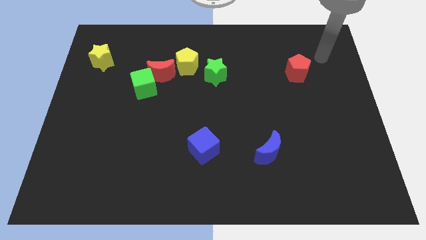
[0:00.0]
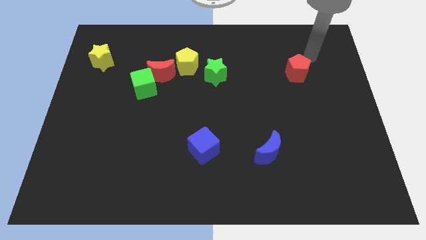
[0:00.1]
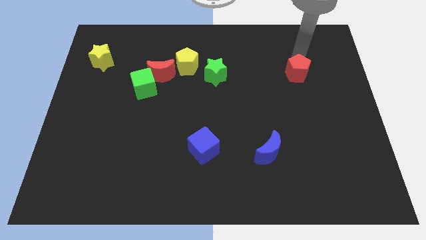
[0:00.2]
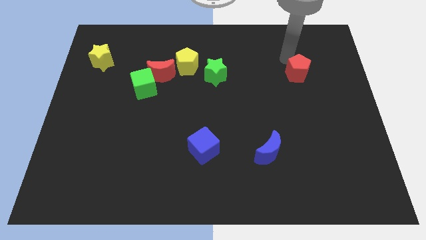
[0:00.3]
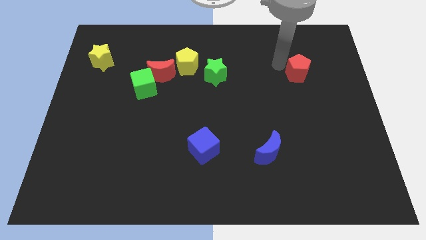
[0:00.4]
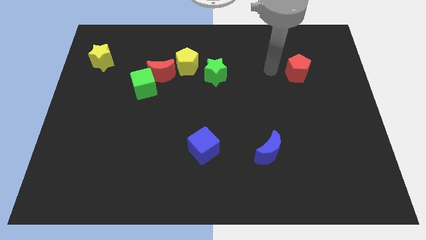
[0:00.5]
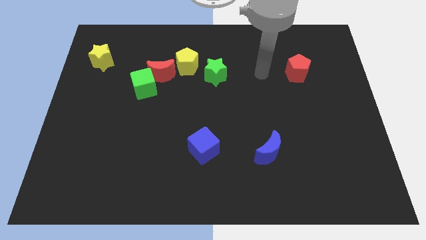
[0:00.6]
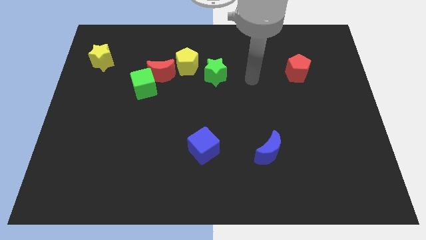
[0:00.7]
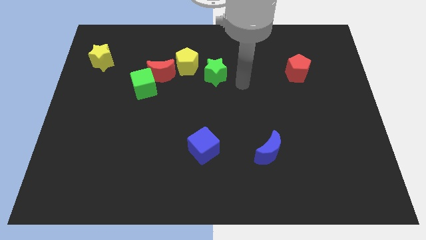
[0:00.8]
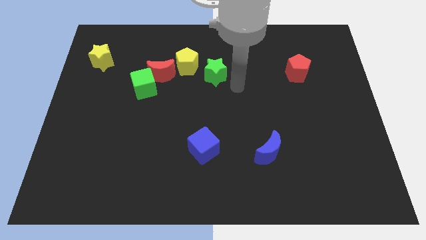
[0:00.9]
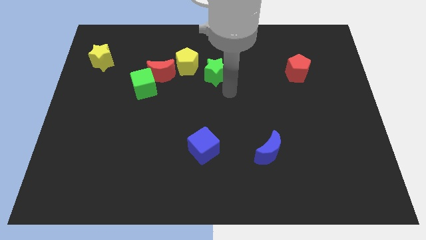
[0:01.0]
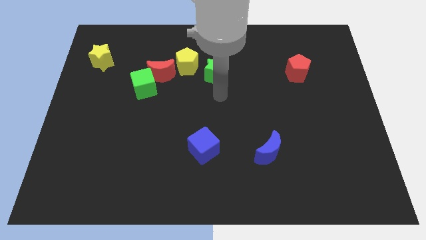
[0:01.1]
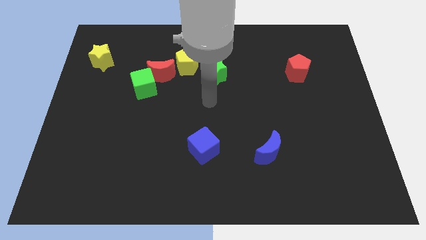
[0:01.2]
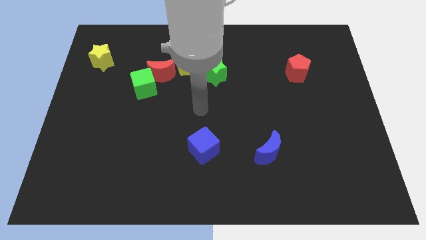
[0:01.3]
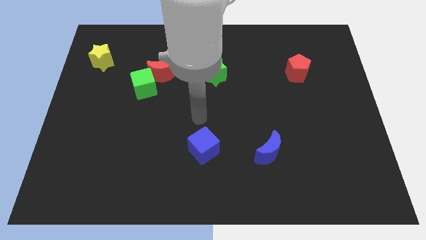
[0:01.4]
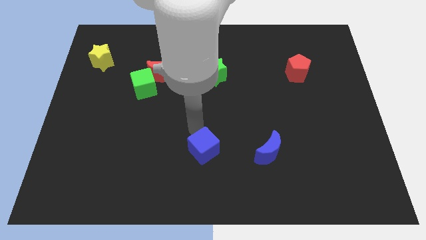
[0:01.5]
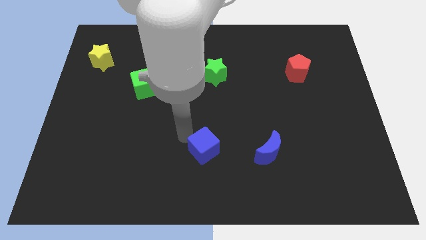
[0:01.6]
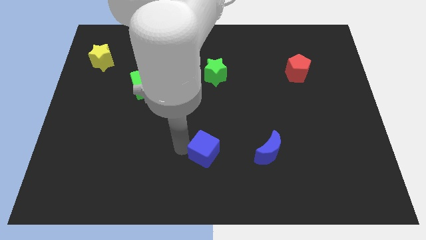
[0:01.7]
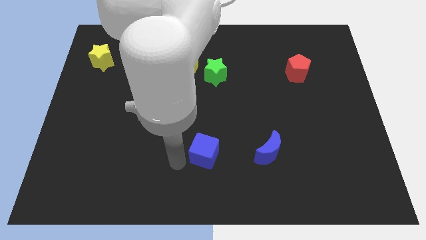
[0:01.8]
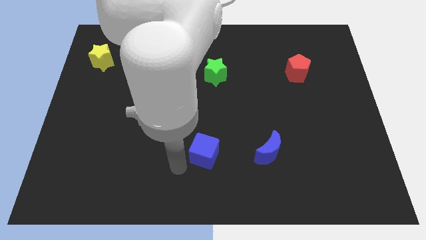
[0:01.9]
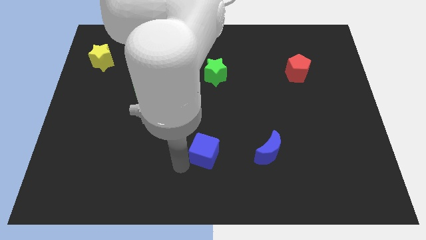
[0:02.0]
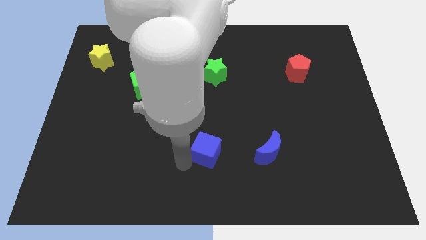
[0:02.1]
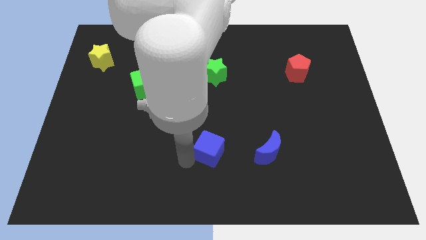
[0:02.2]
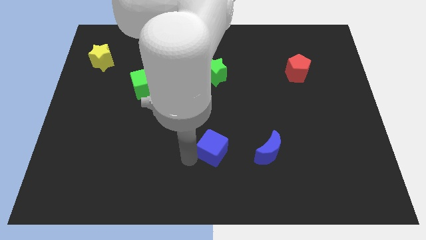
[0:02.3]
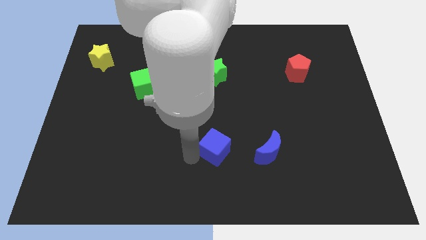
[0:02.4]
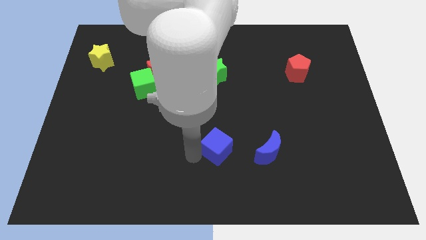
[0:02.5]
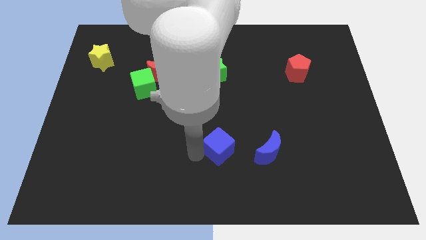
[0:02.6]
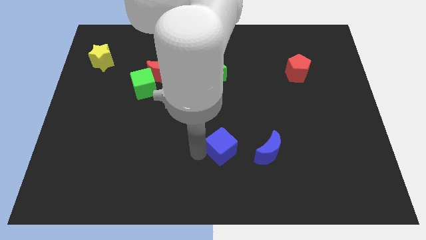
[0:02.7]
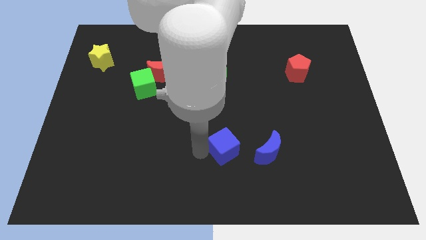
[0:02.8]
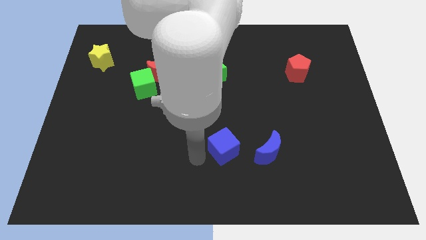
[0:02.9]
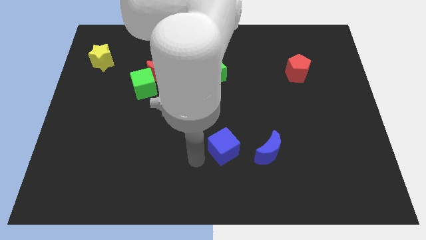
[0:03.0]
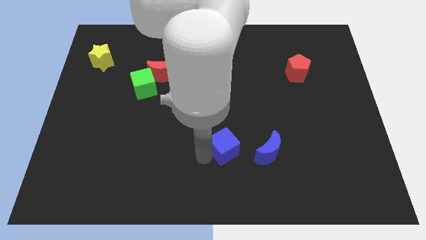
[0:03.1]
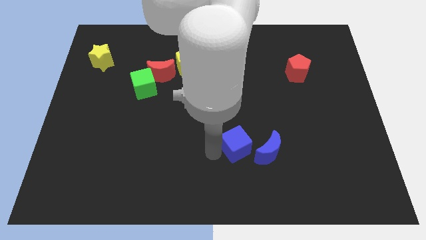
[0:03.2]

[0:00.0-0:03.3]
slide the blue cube right a little

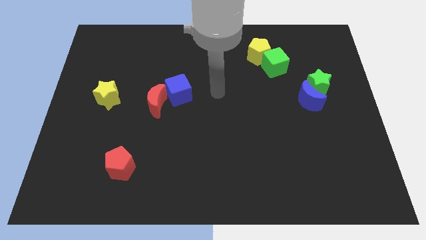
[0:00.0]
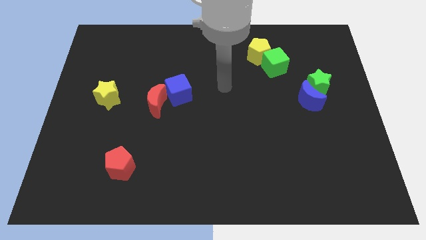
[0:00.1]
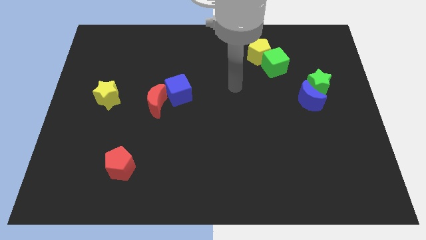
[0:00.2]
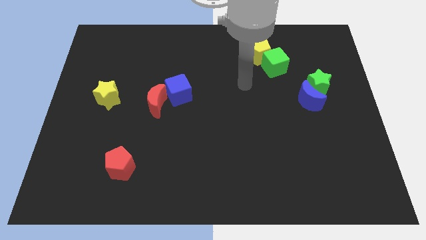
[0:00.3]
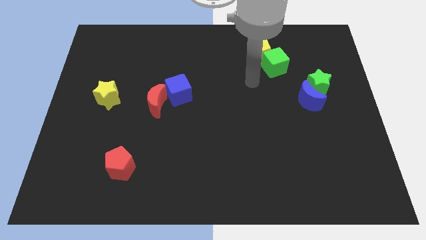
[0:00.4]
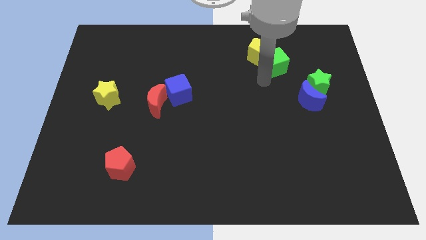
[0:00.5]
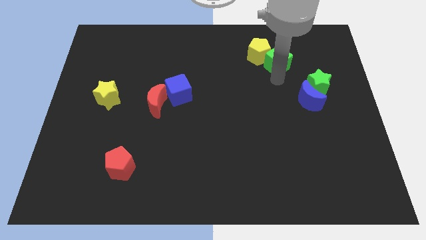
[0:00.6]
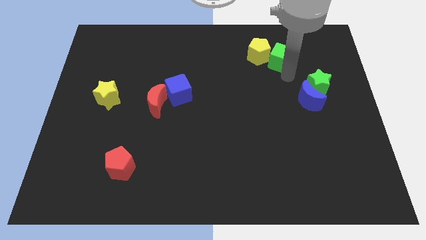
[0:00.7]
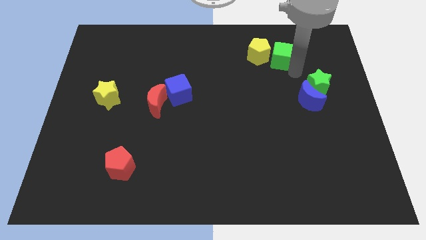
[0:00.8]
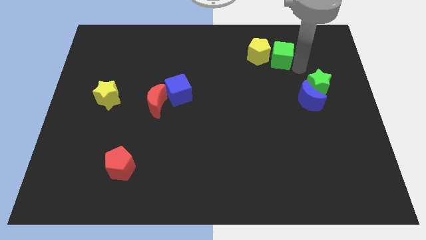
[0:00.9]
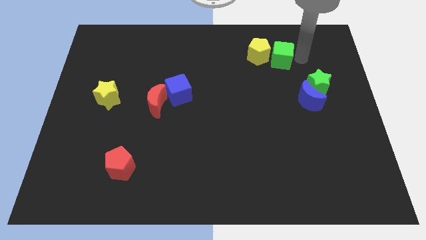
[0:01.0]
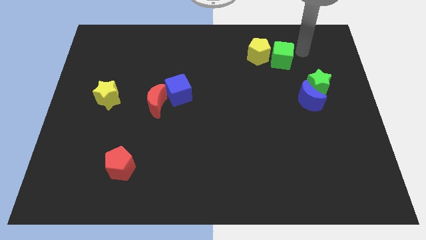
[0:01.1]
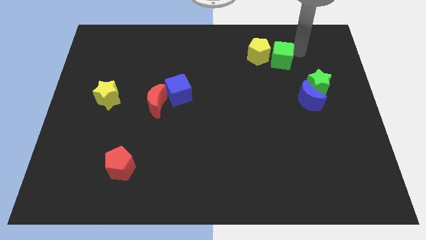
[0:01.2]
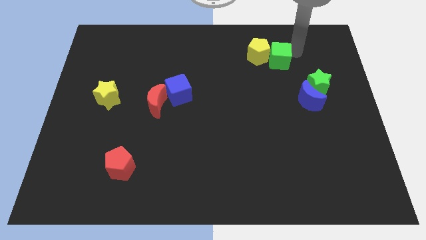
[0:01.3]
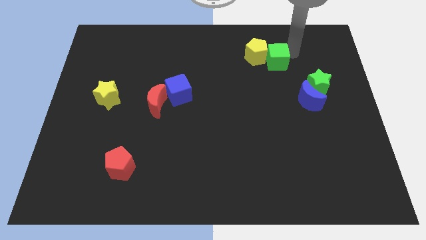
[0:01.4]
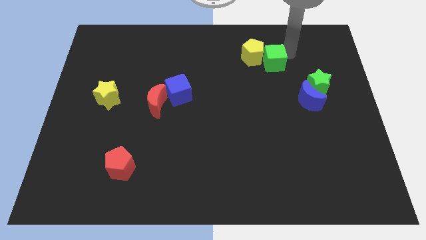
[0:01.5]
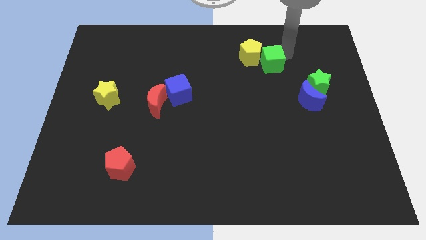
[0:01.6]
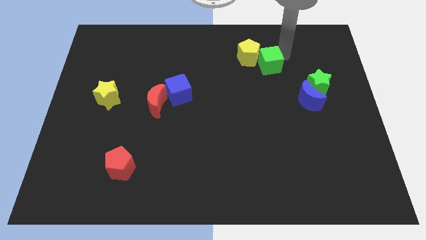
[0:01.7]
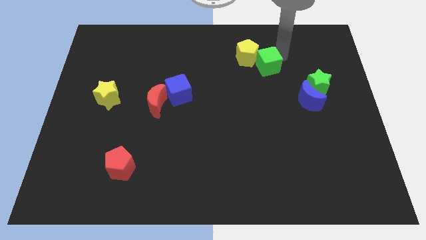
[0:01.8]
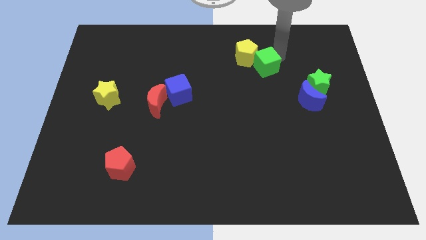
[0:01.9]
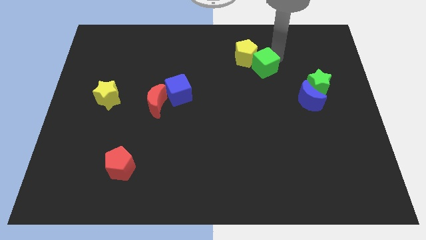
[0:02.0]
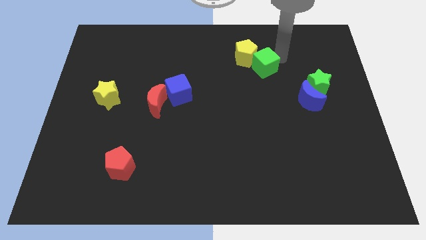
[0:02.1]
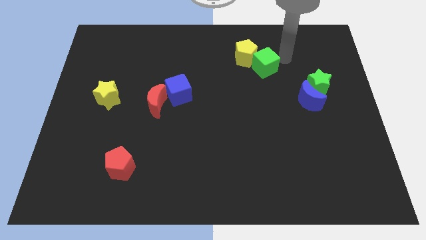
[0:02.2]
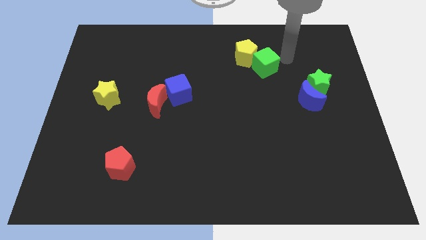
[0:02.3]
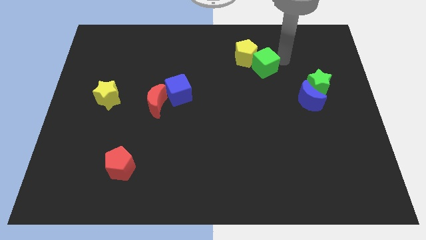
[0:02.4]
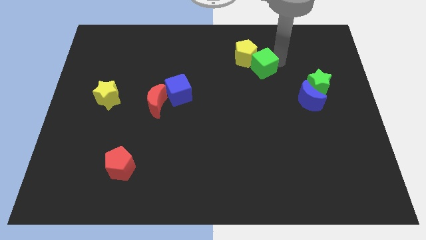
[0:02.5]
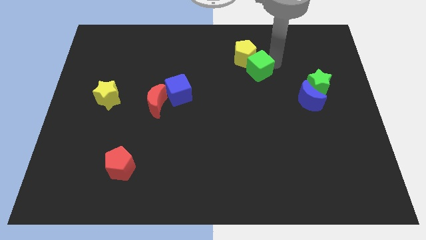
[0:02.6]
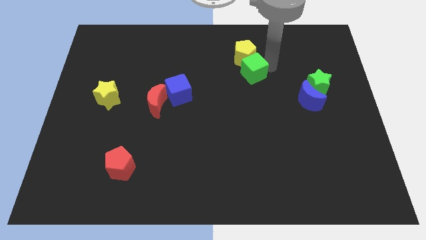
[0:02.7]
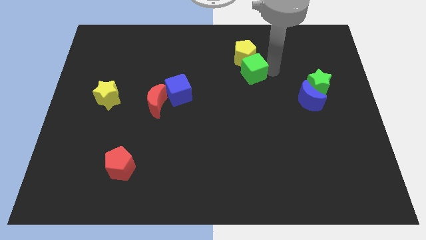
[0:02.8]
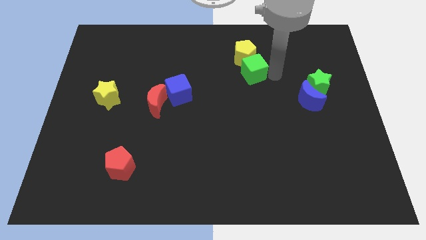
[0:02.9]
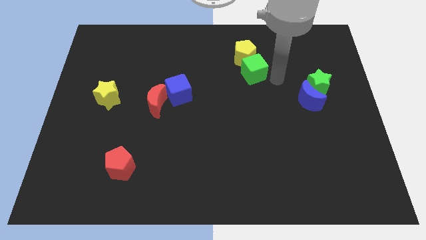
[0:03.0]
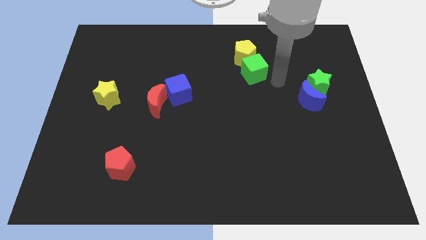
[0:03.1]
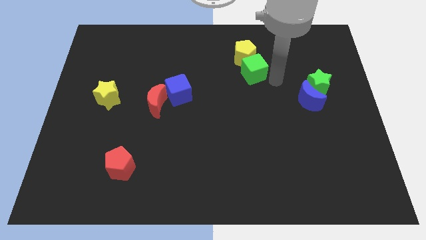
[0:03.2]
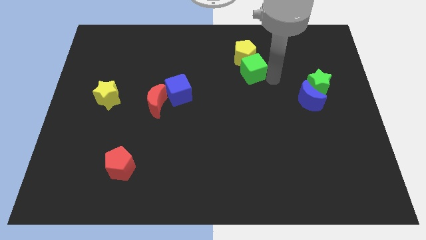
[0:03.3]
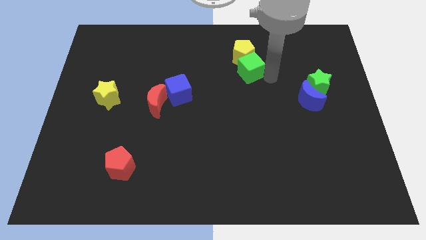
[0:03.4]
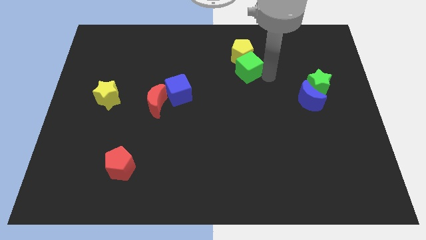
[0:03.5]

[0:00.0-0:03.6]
push the green cube a bit left

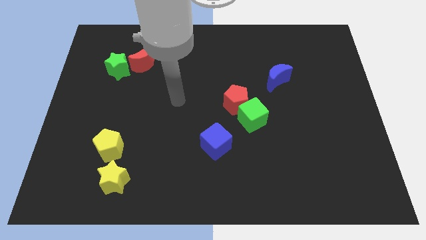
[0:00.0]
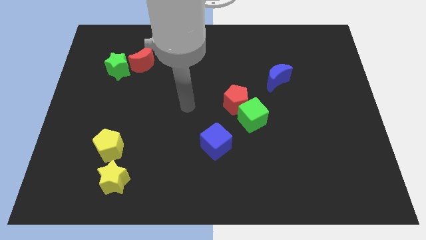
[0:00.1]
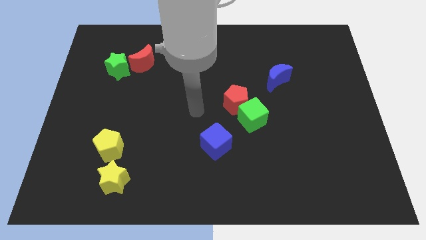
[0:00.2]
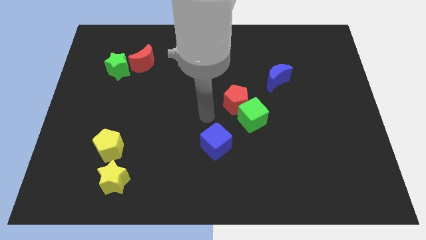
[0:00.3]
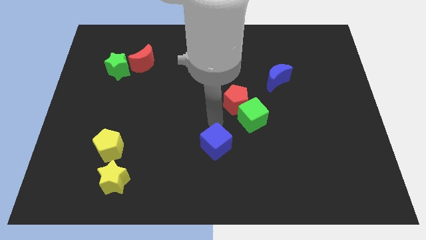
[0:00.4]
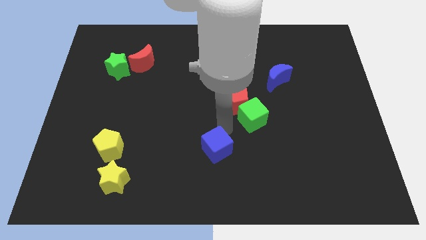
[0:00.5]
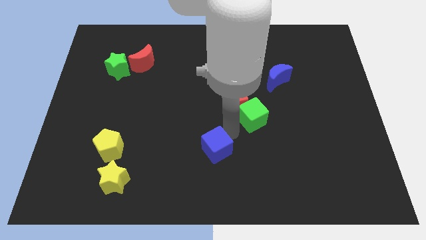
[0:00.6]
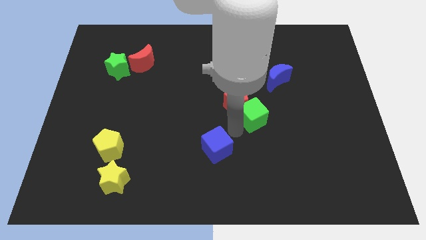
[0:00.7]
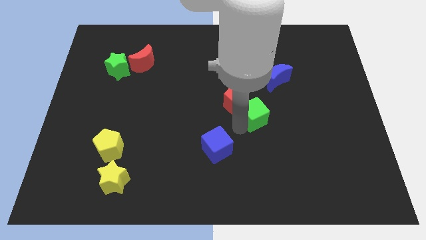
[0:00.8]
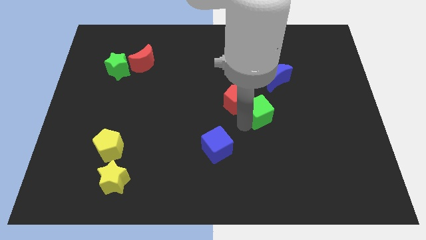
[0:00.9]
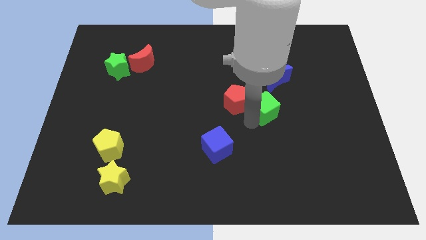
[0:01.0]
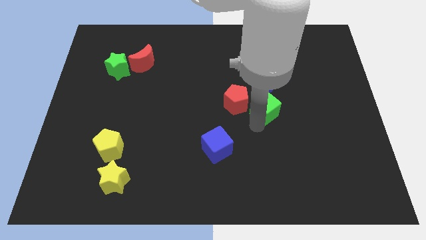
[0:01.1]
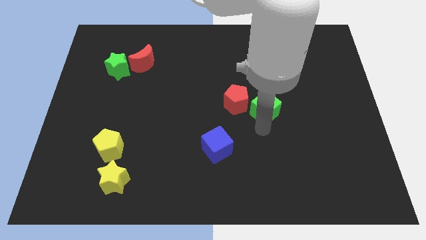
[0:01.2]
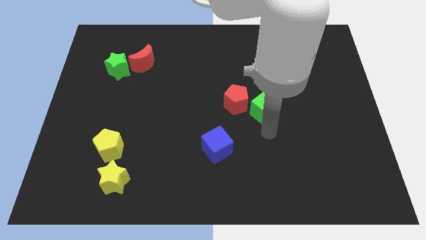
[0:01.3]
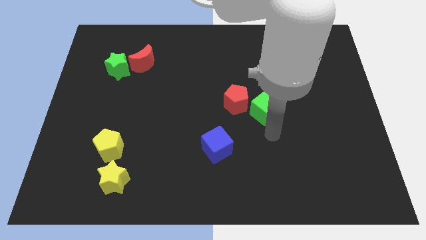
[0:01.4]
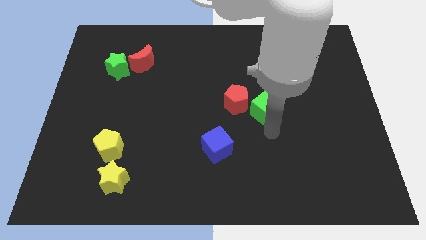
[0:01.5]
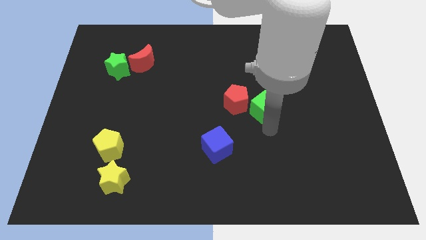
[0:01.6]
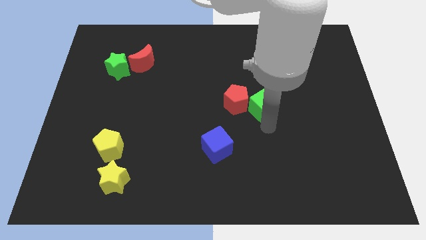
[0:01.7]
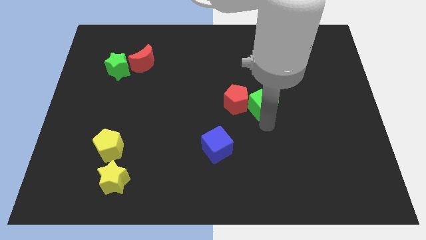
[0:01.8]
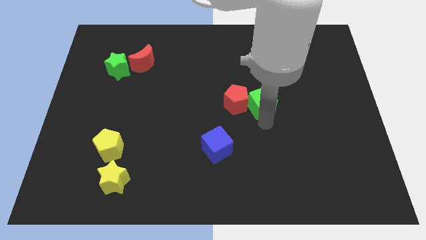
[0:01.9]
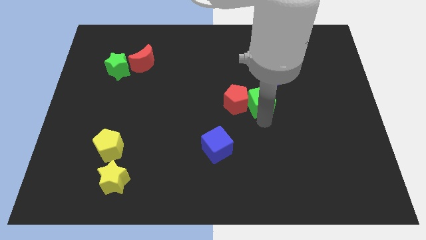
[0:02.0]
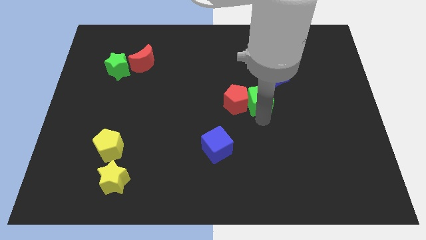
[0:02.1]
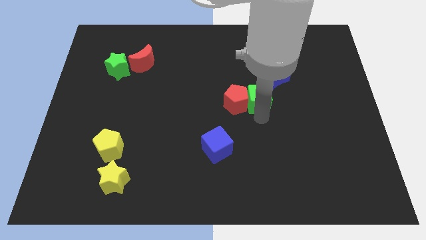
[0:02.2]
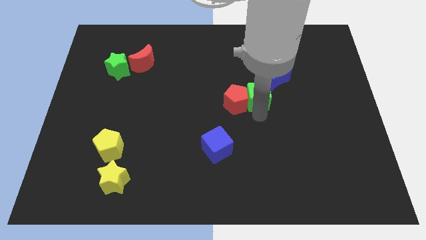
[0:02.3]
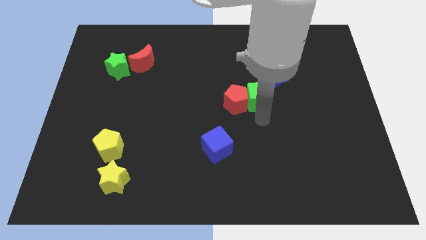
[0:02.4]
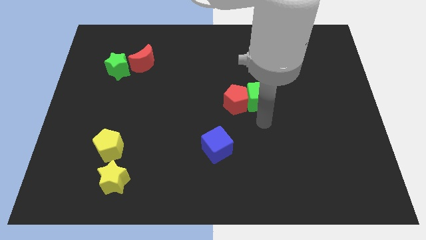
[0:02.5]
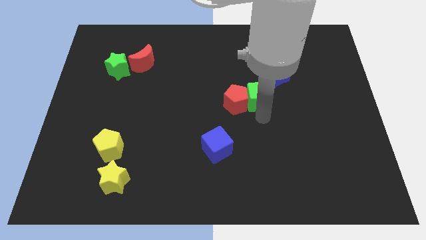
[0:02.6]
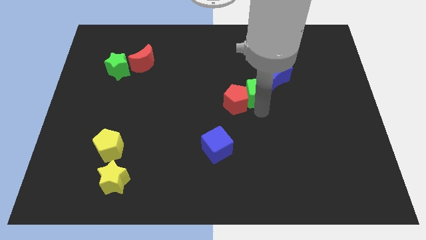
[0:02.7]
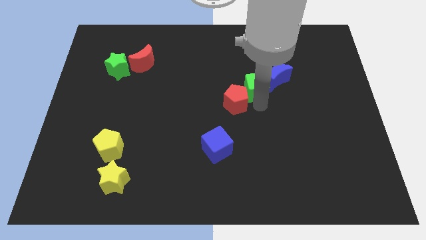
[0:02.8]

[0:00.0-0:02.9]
slide the green cube somewhat up
